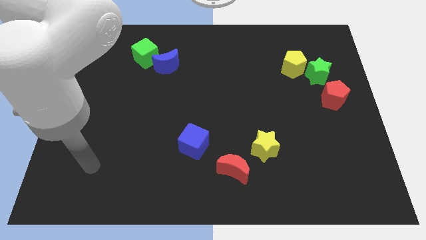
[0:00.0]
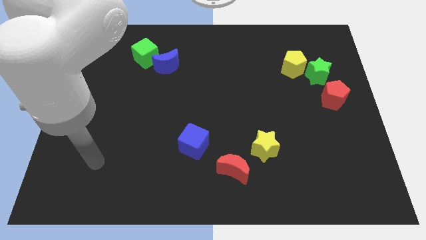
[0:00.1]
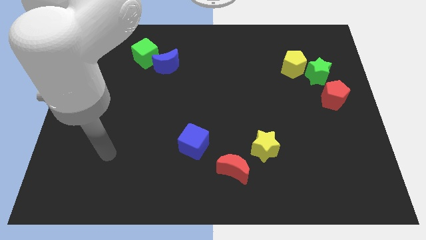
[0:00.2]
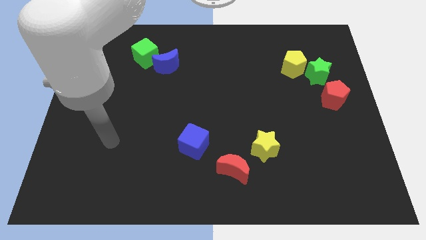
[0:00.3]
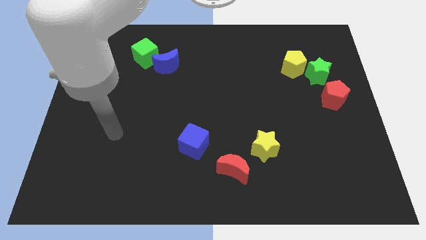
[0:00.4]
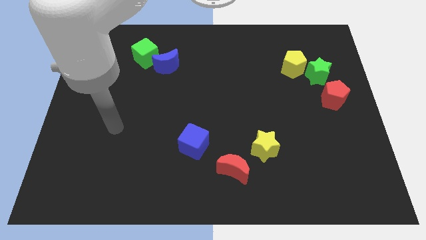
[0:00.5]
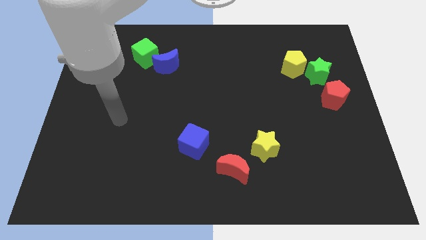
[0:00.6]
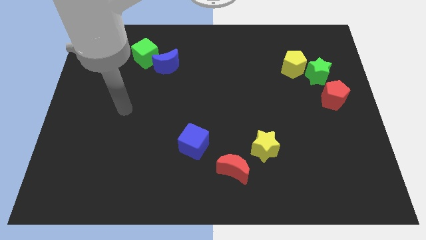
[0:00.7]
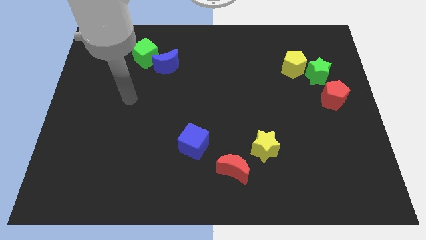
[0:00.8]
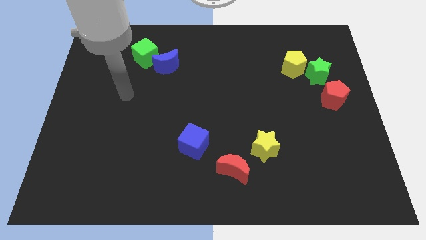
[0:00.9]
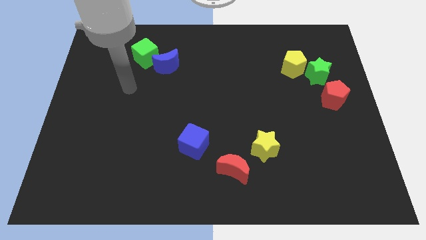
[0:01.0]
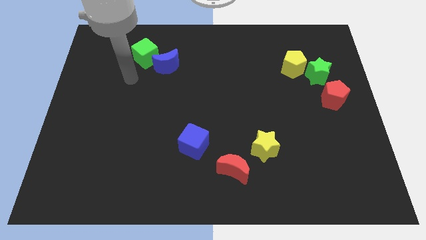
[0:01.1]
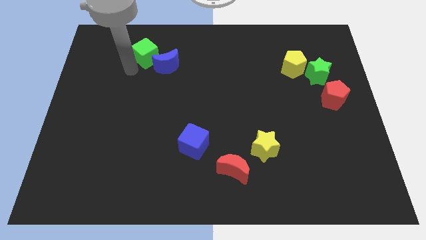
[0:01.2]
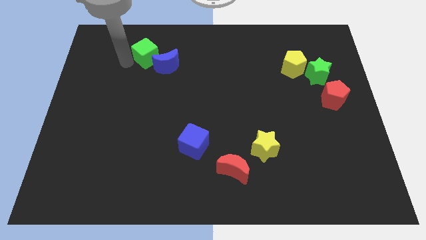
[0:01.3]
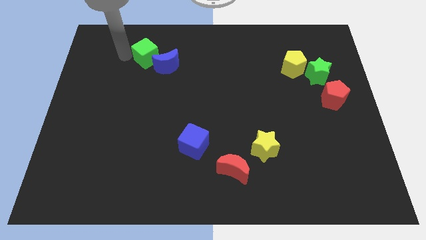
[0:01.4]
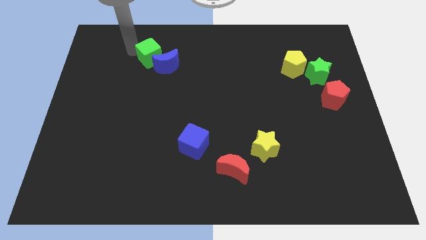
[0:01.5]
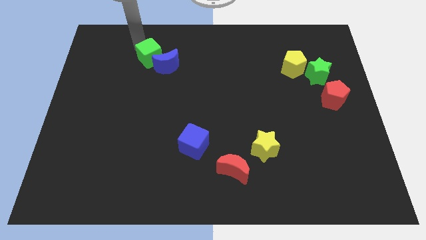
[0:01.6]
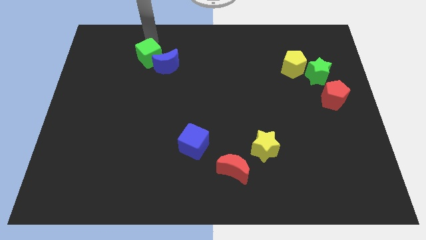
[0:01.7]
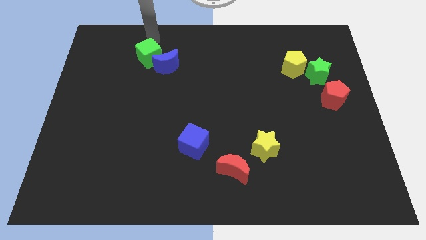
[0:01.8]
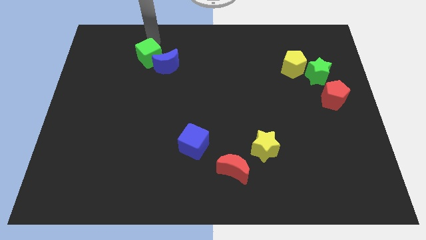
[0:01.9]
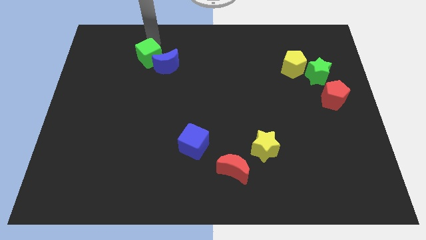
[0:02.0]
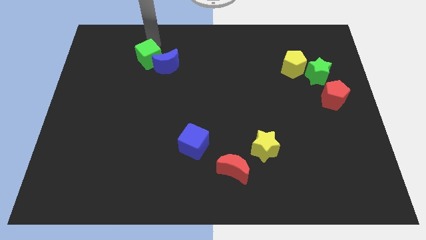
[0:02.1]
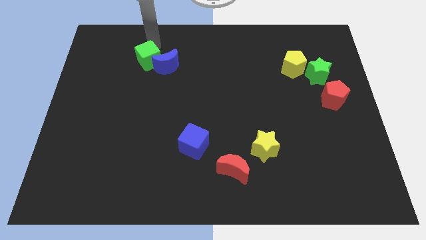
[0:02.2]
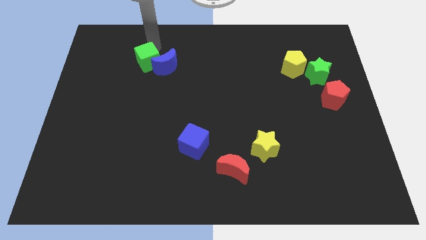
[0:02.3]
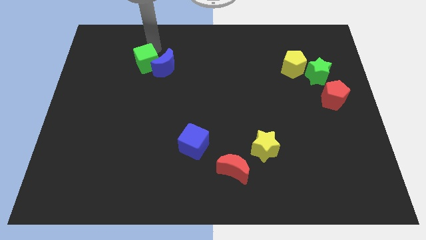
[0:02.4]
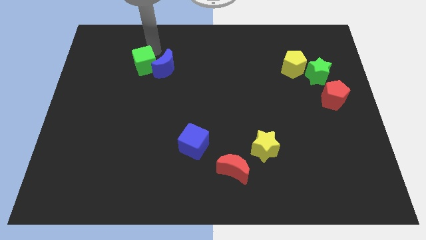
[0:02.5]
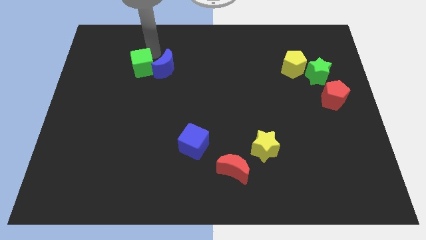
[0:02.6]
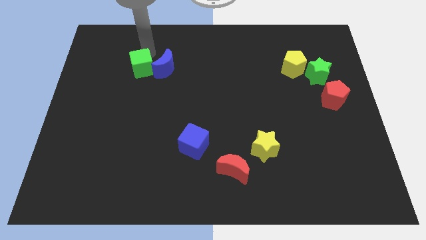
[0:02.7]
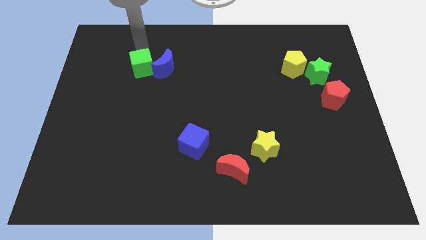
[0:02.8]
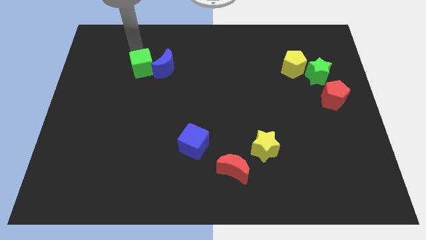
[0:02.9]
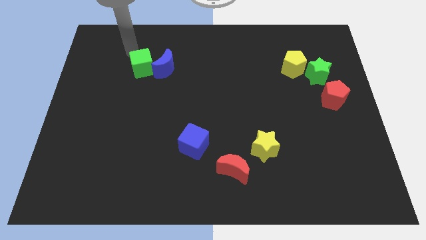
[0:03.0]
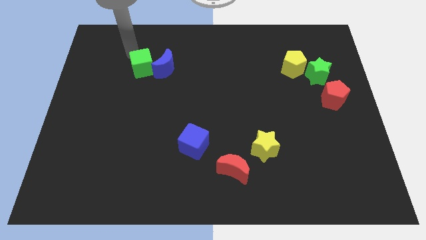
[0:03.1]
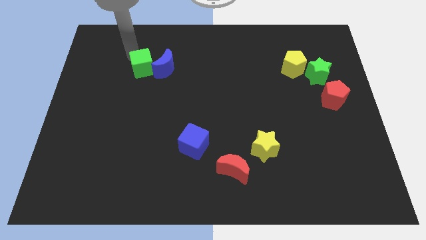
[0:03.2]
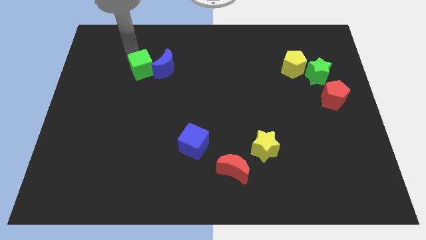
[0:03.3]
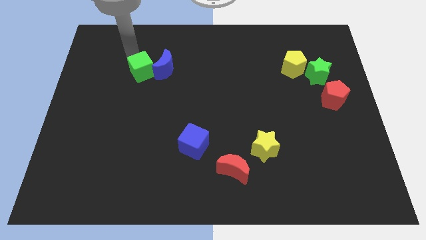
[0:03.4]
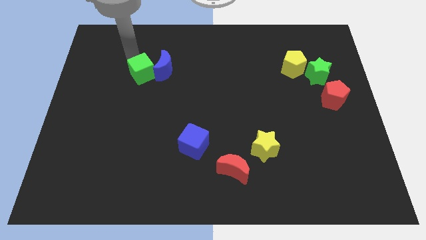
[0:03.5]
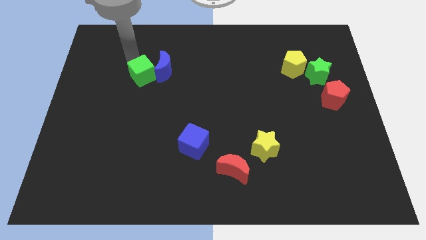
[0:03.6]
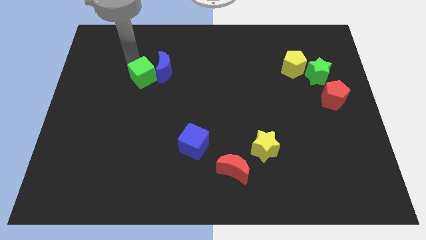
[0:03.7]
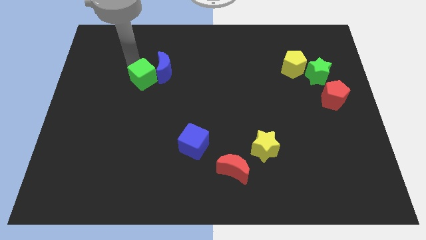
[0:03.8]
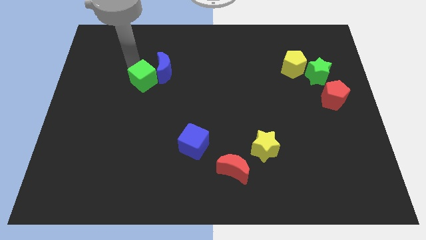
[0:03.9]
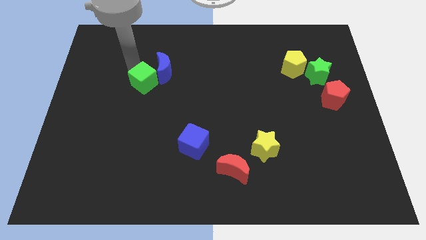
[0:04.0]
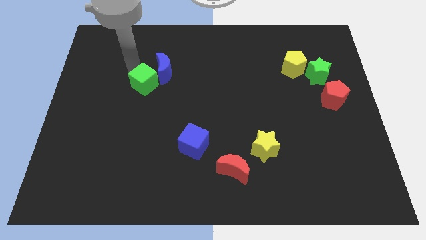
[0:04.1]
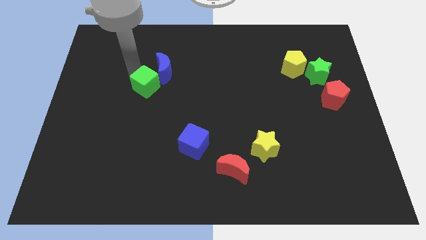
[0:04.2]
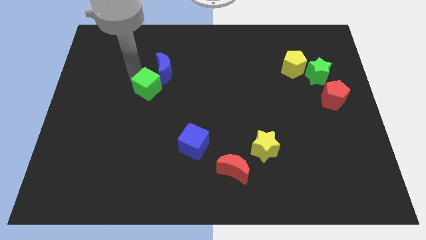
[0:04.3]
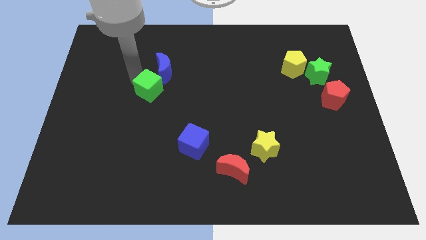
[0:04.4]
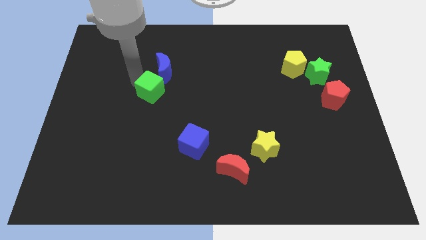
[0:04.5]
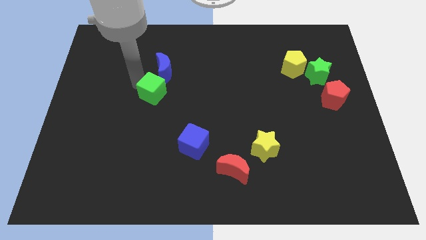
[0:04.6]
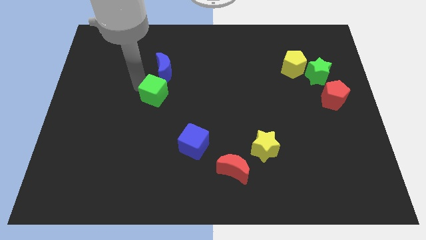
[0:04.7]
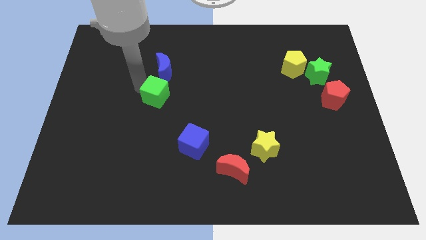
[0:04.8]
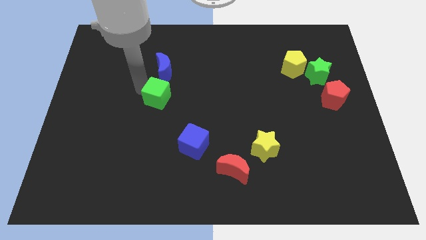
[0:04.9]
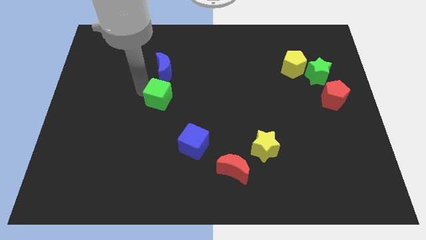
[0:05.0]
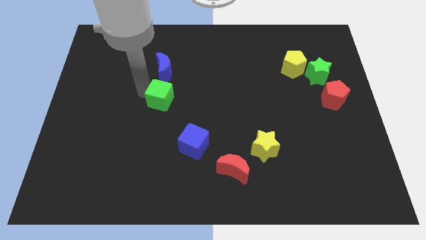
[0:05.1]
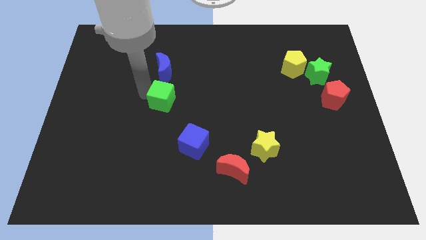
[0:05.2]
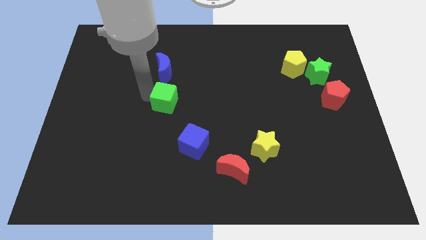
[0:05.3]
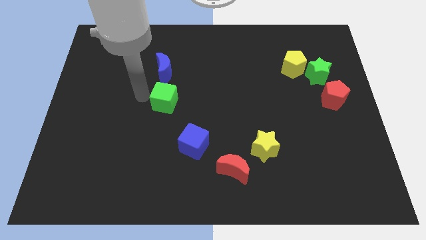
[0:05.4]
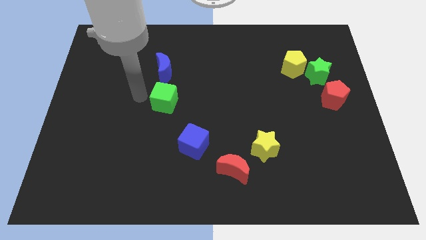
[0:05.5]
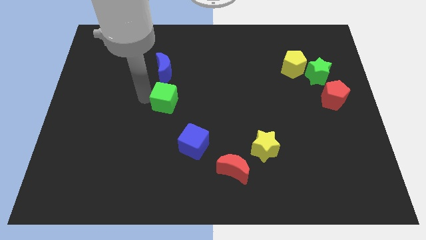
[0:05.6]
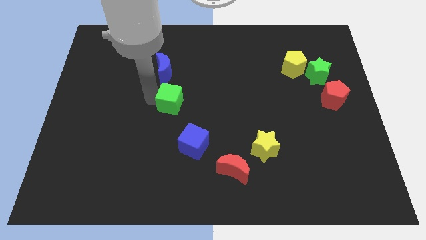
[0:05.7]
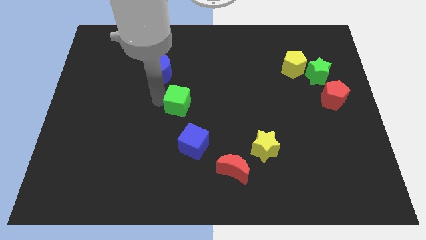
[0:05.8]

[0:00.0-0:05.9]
slide the green cube above the blue cube
